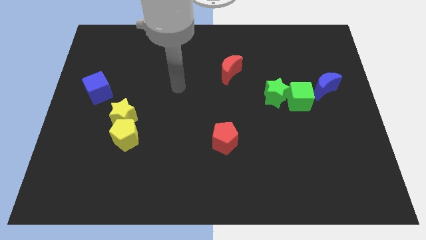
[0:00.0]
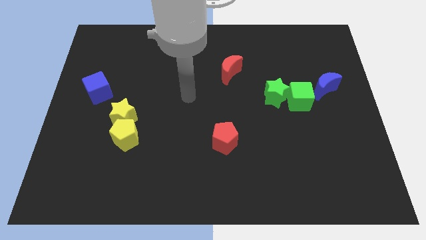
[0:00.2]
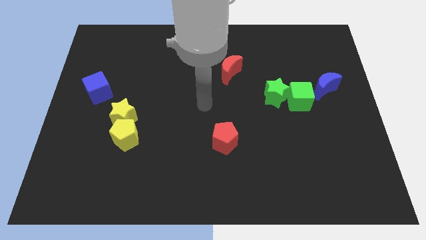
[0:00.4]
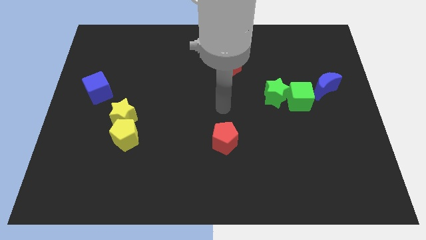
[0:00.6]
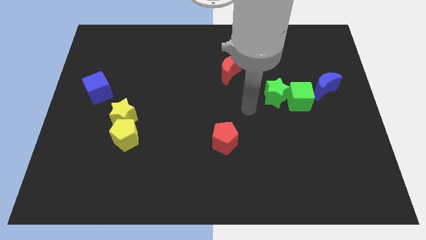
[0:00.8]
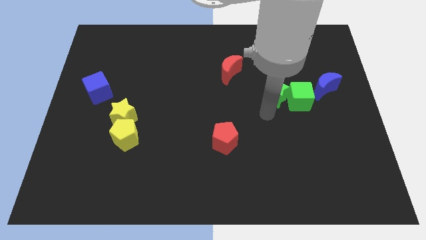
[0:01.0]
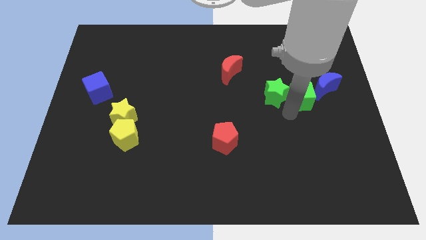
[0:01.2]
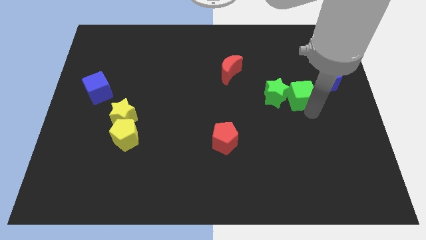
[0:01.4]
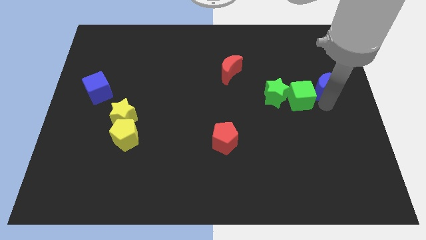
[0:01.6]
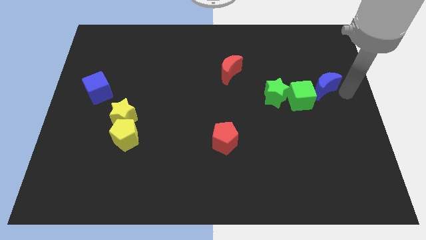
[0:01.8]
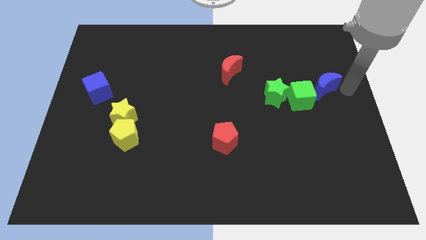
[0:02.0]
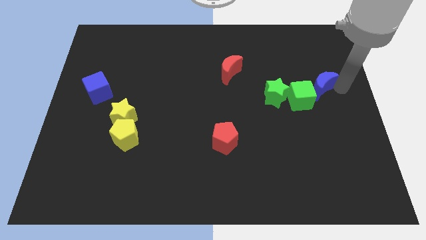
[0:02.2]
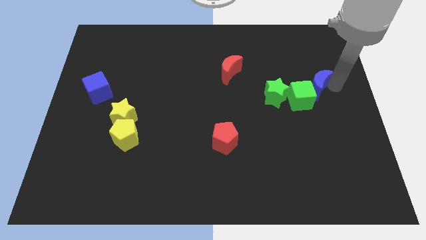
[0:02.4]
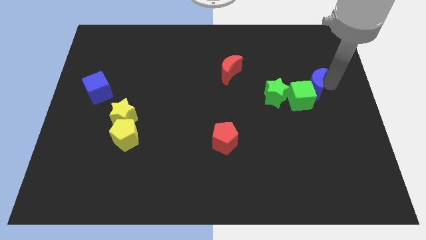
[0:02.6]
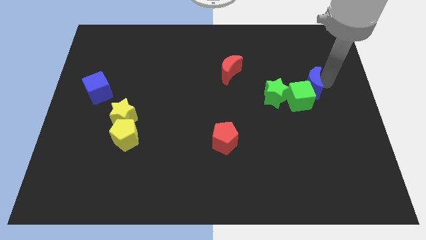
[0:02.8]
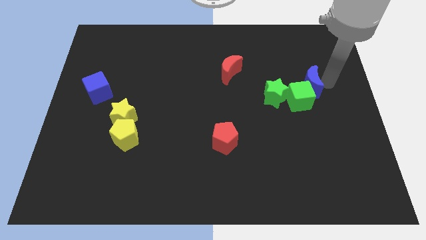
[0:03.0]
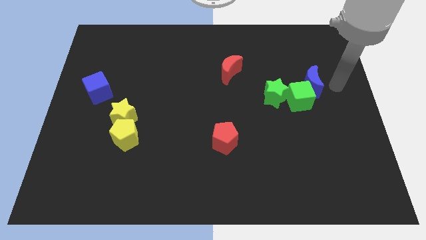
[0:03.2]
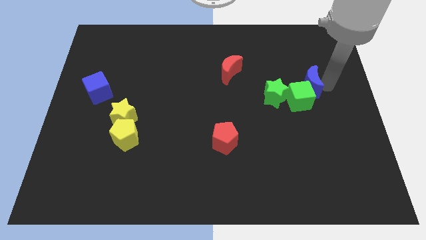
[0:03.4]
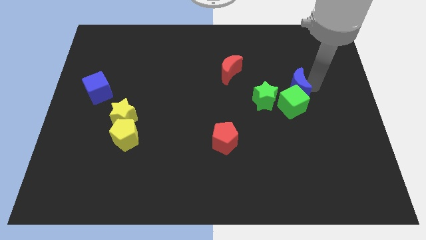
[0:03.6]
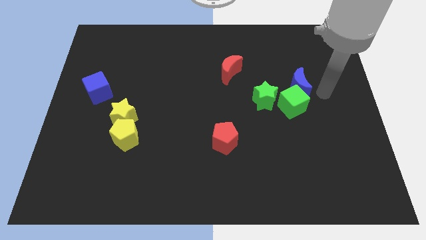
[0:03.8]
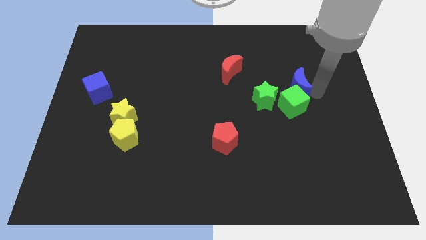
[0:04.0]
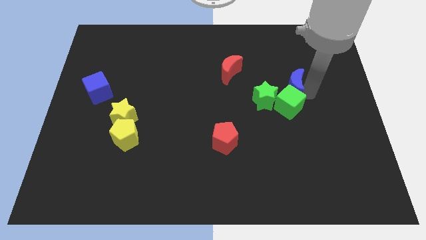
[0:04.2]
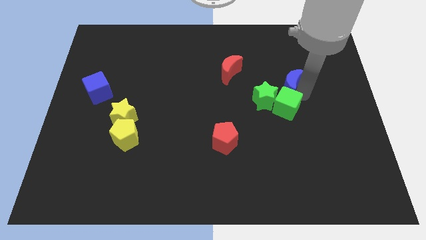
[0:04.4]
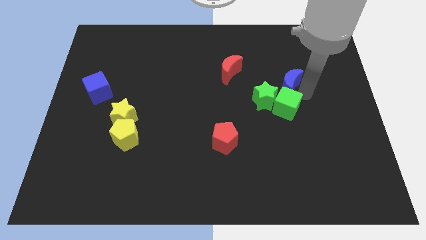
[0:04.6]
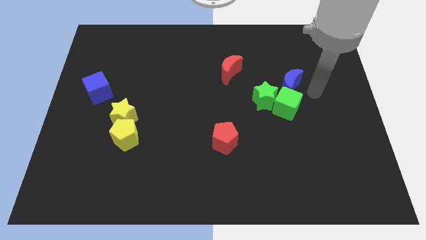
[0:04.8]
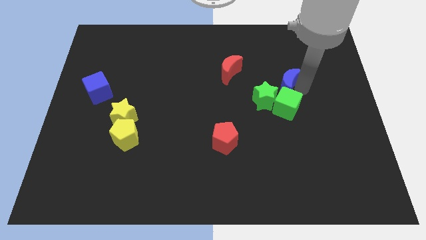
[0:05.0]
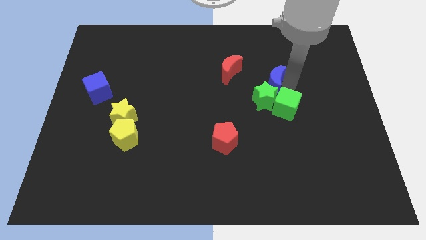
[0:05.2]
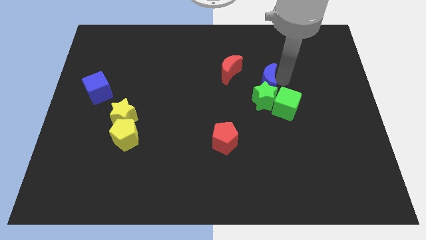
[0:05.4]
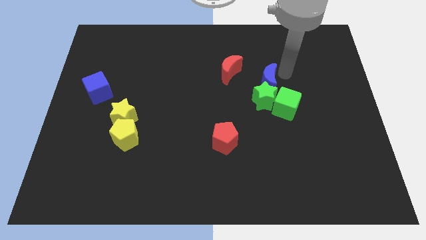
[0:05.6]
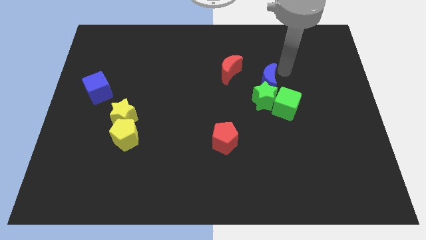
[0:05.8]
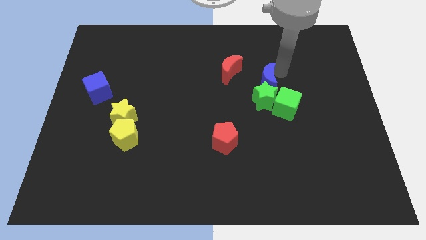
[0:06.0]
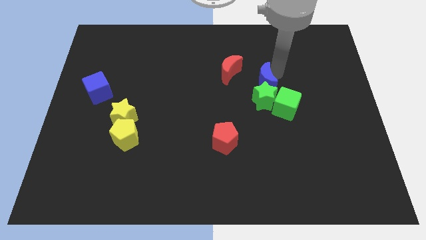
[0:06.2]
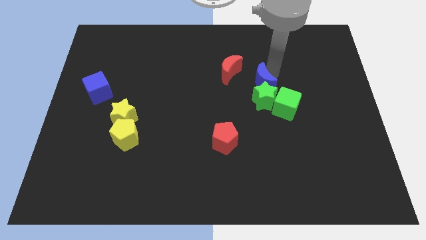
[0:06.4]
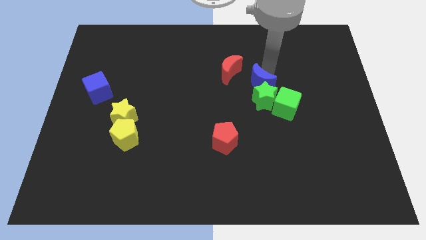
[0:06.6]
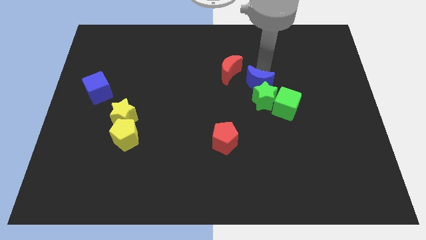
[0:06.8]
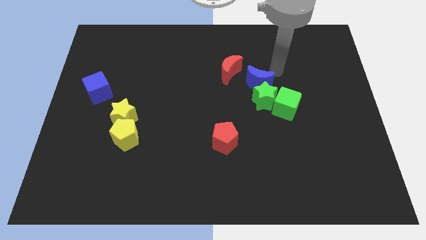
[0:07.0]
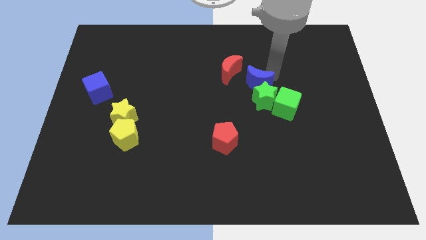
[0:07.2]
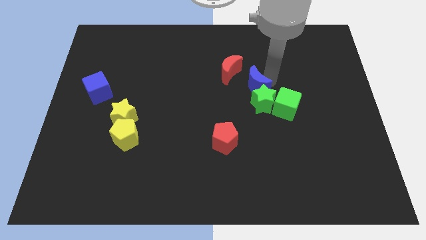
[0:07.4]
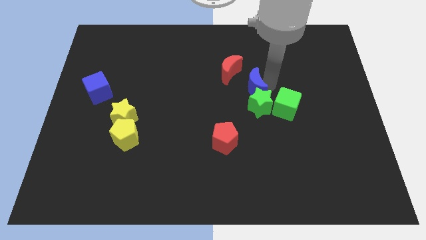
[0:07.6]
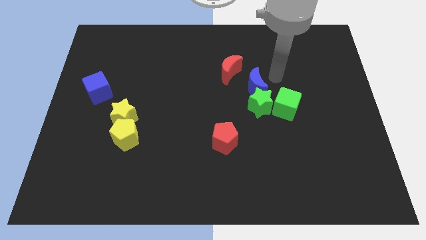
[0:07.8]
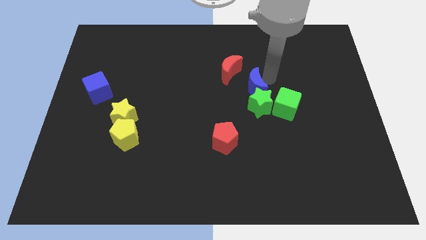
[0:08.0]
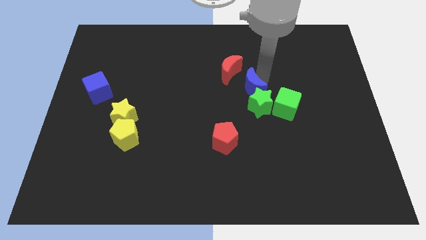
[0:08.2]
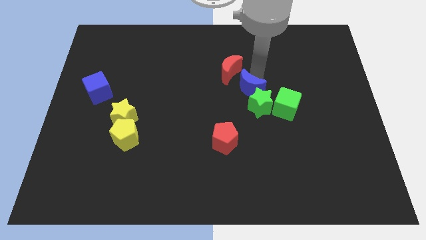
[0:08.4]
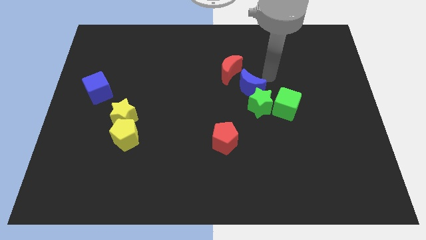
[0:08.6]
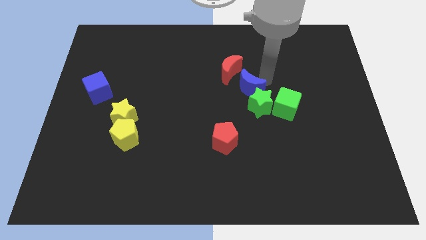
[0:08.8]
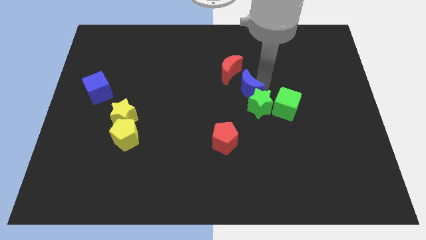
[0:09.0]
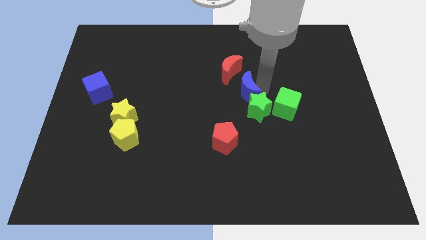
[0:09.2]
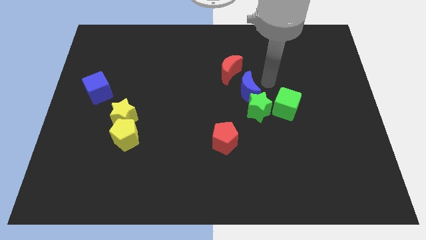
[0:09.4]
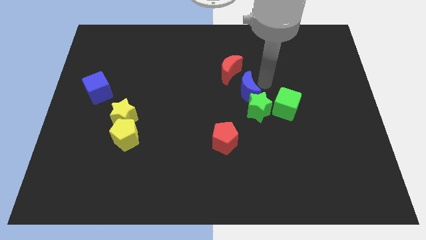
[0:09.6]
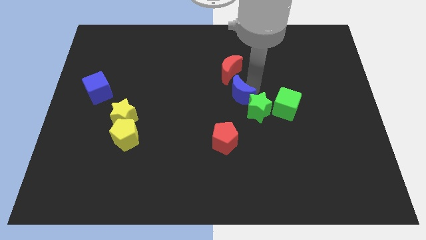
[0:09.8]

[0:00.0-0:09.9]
push the blue moon to the top side of the red pentagon

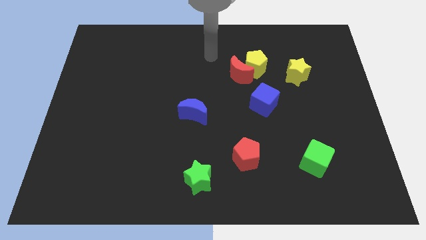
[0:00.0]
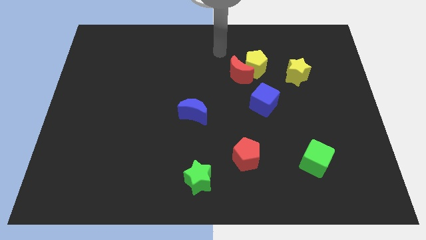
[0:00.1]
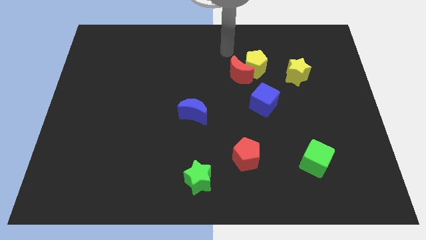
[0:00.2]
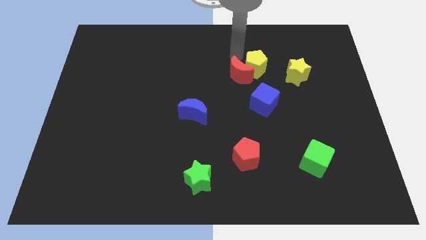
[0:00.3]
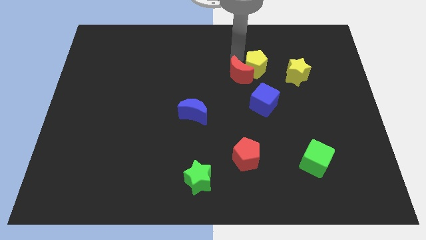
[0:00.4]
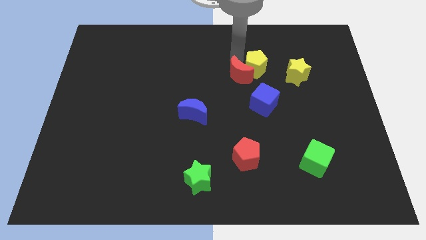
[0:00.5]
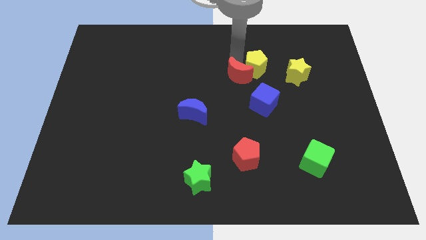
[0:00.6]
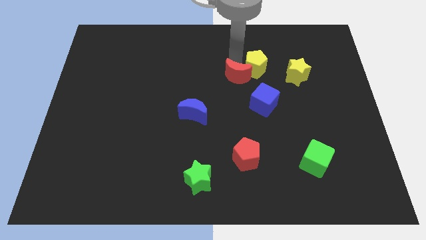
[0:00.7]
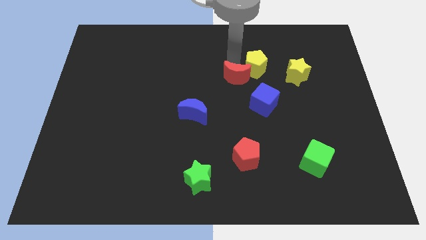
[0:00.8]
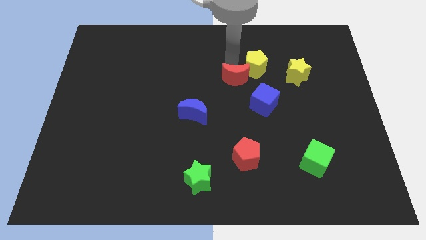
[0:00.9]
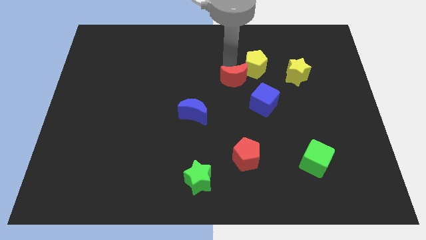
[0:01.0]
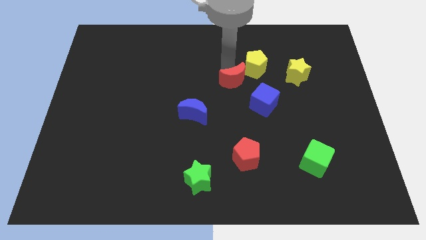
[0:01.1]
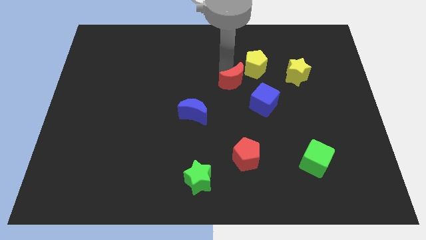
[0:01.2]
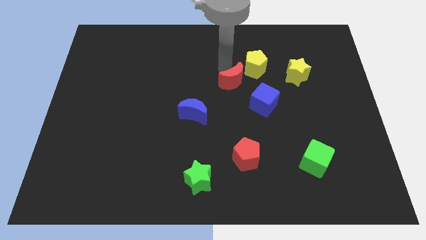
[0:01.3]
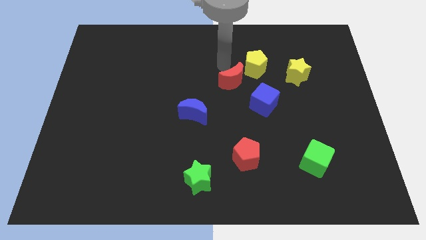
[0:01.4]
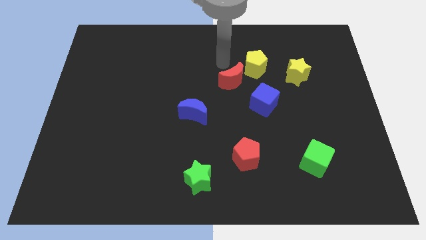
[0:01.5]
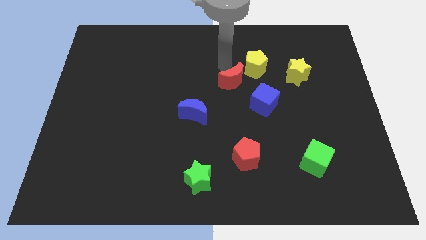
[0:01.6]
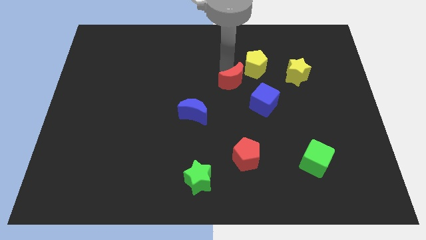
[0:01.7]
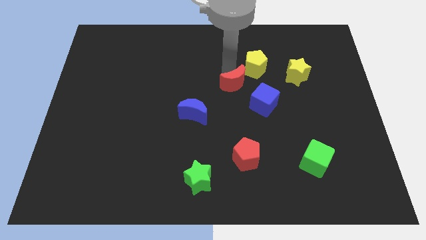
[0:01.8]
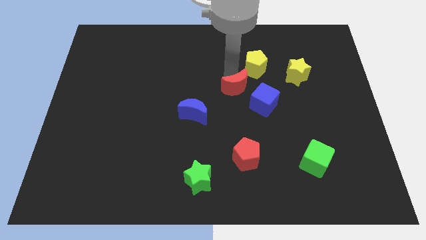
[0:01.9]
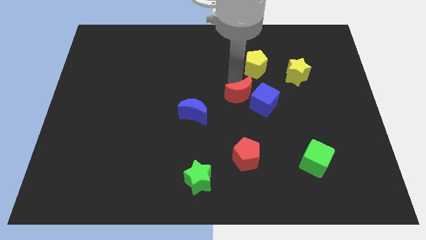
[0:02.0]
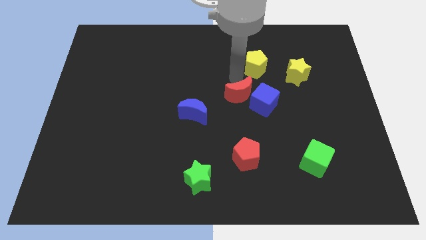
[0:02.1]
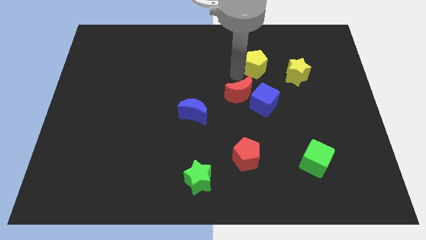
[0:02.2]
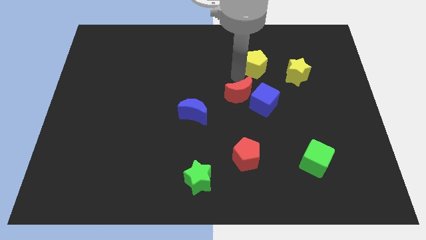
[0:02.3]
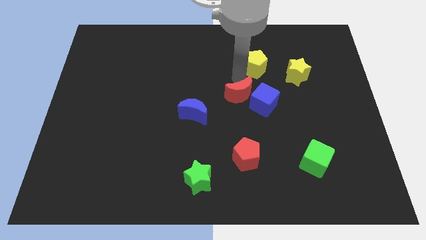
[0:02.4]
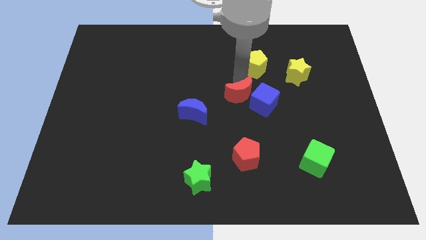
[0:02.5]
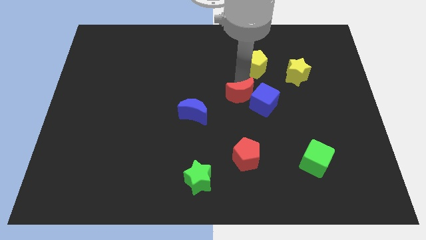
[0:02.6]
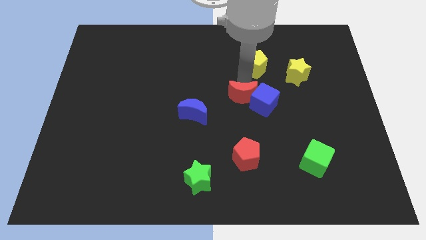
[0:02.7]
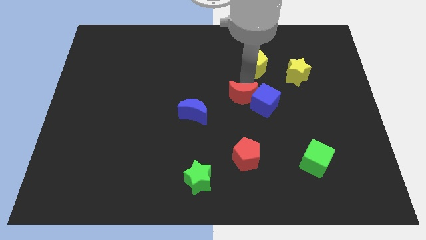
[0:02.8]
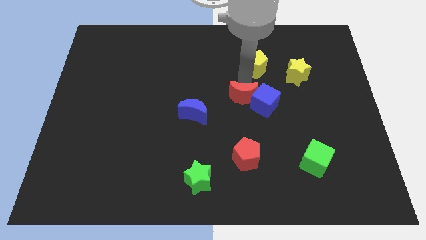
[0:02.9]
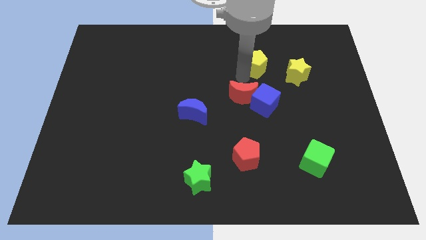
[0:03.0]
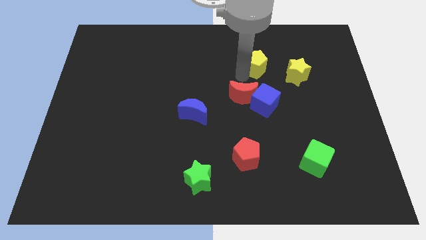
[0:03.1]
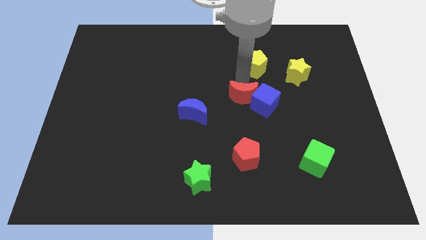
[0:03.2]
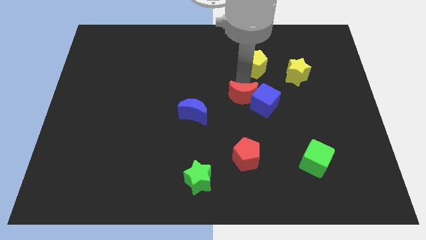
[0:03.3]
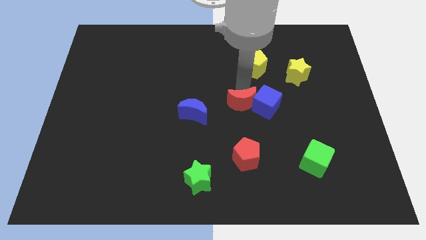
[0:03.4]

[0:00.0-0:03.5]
slide the red moon to the top of the red pentagon
